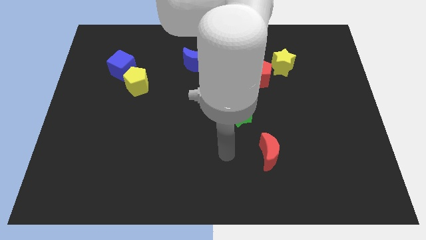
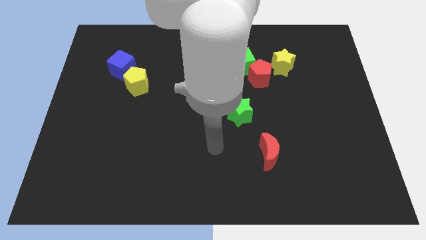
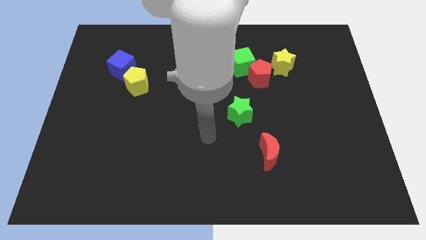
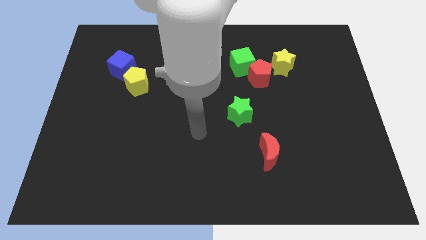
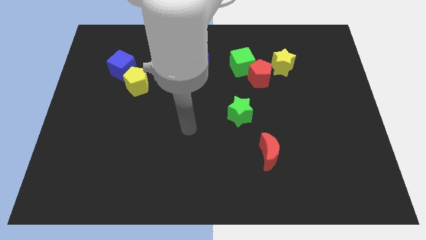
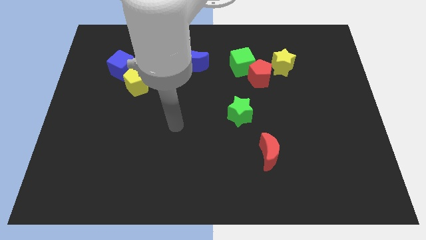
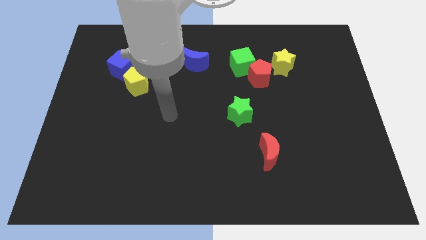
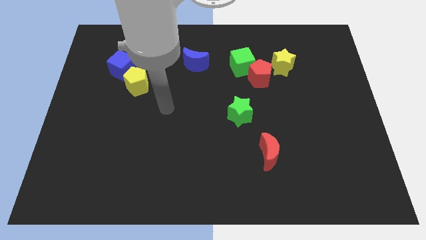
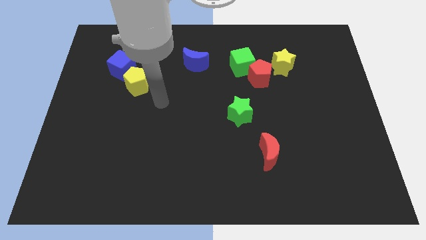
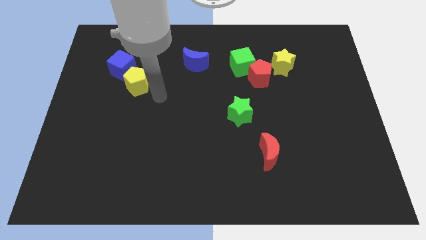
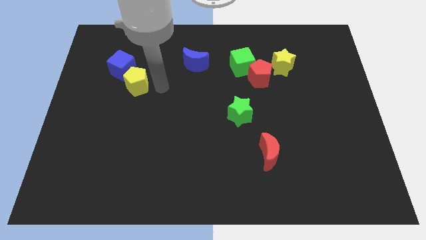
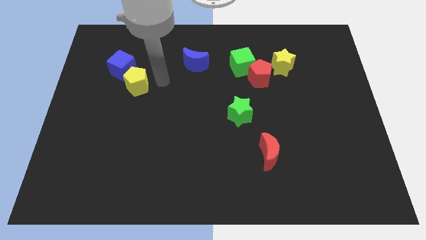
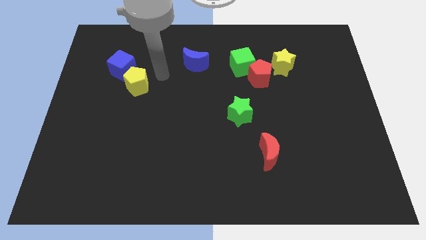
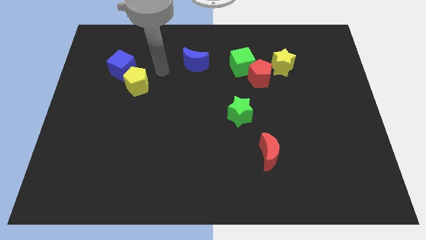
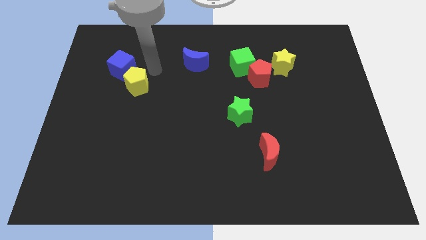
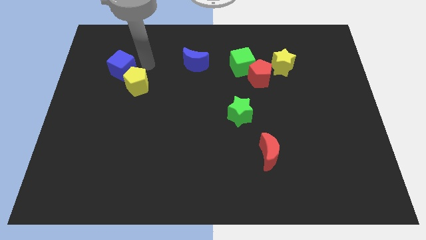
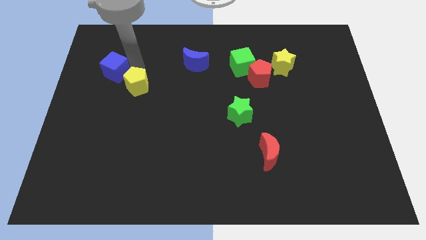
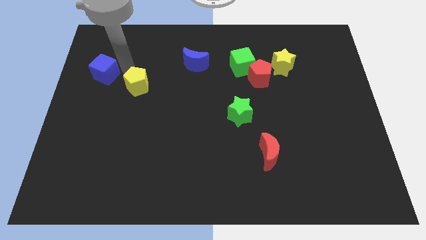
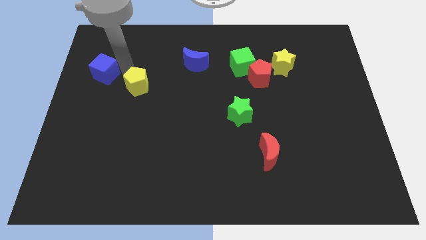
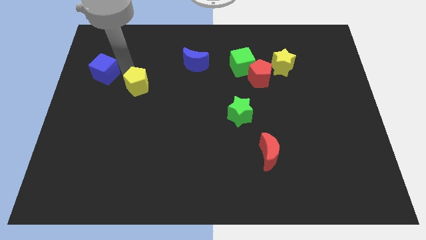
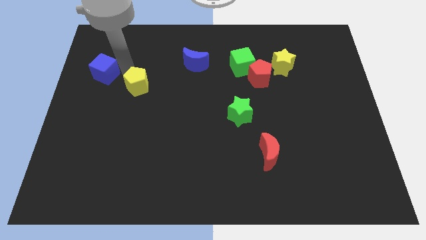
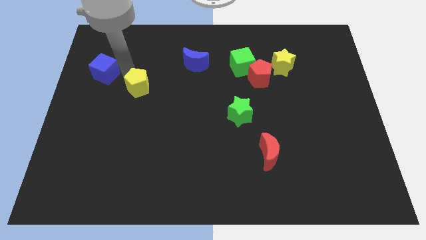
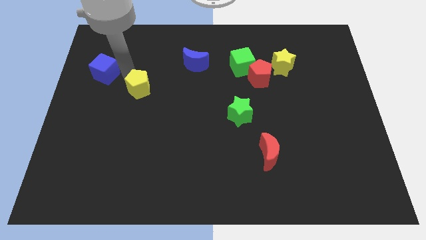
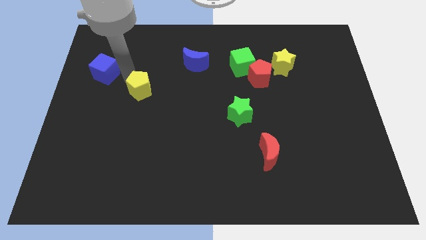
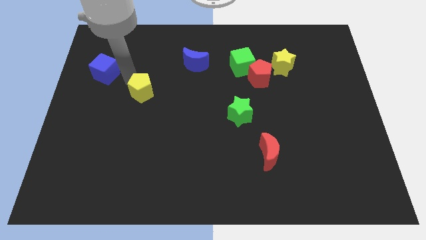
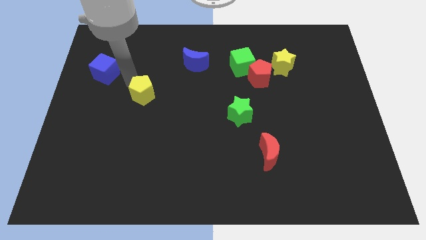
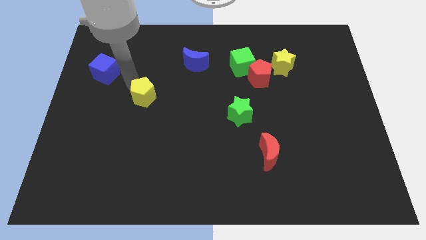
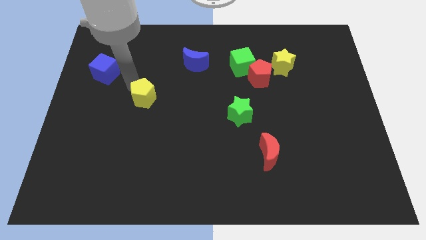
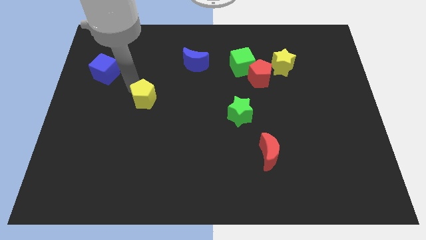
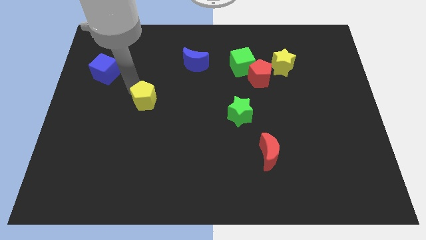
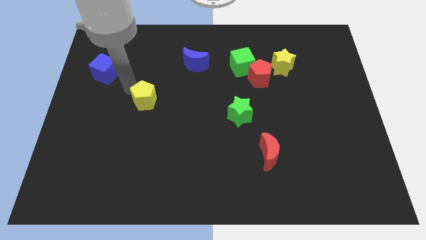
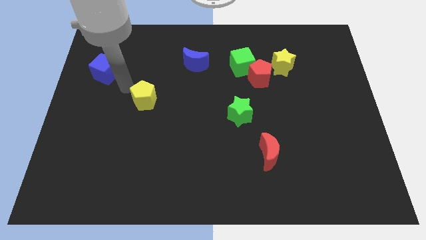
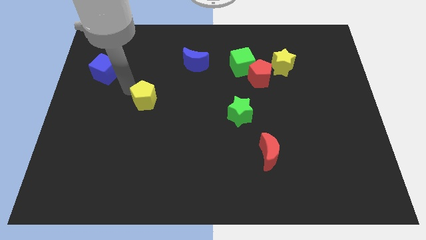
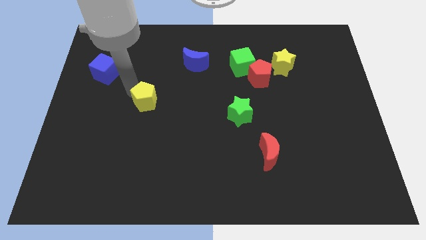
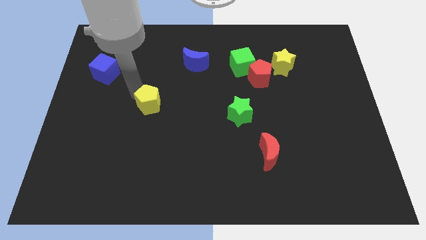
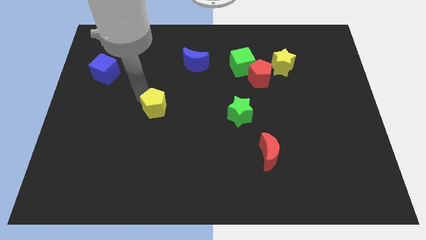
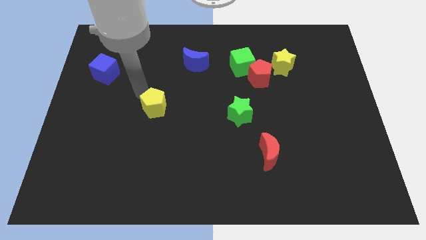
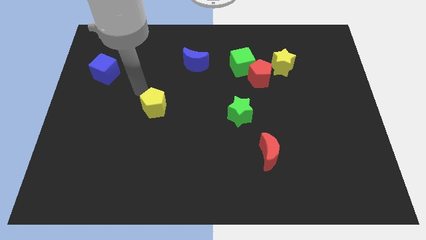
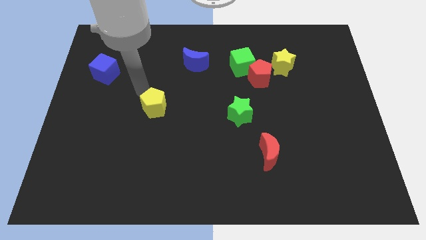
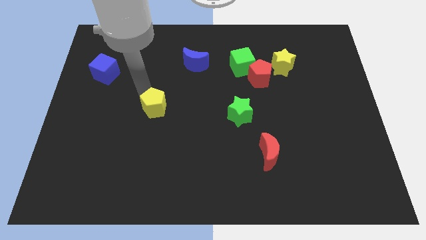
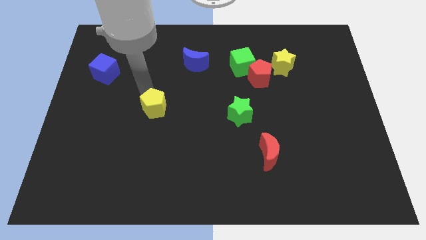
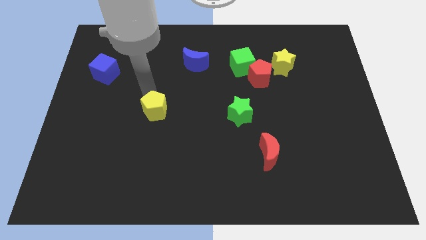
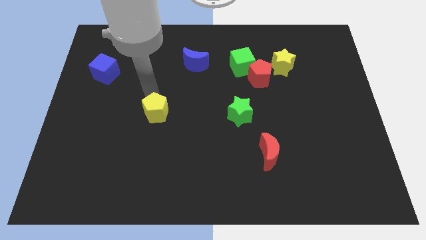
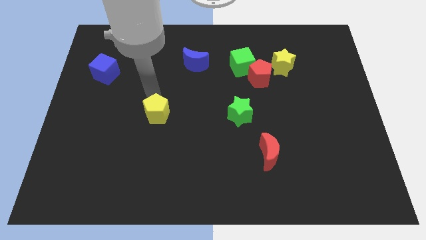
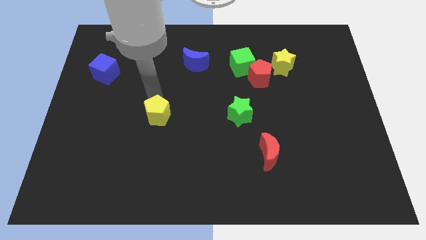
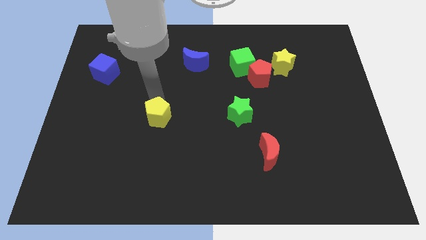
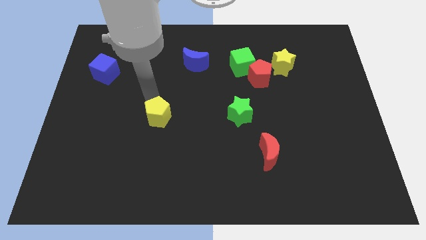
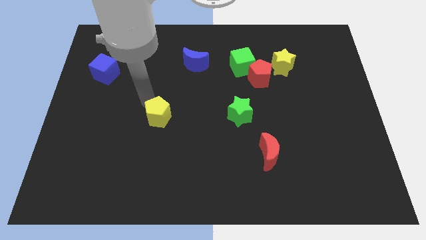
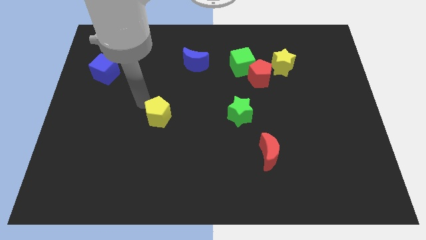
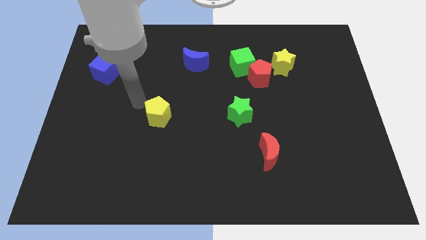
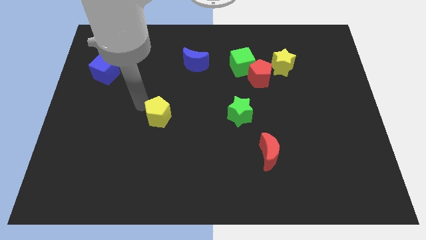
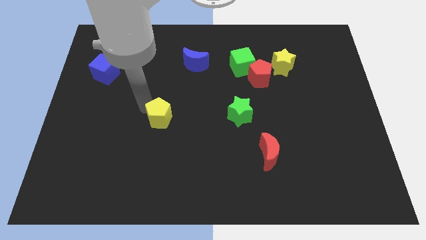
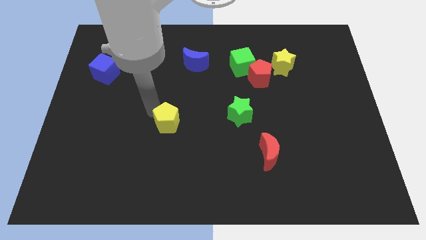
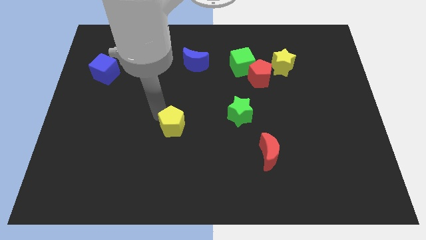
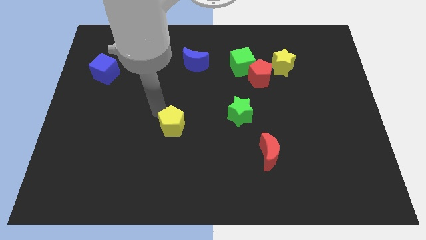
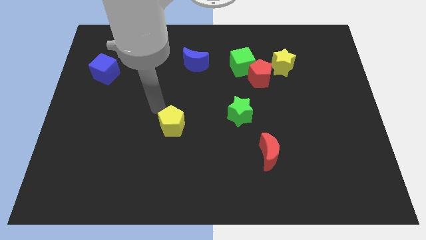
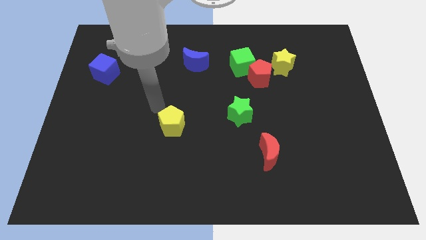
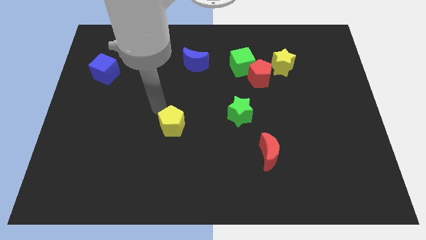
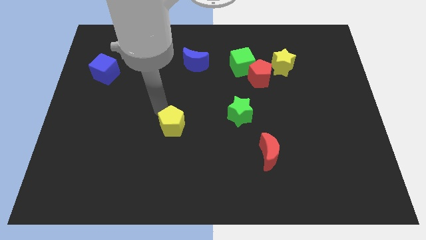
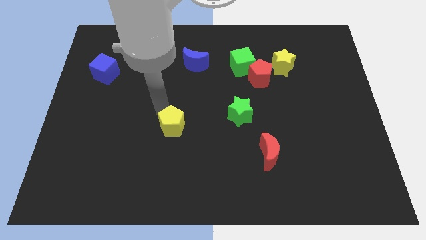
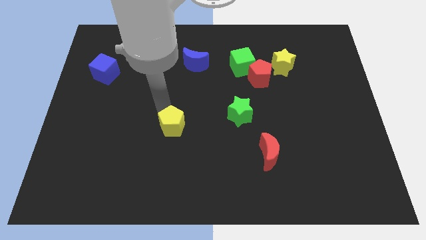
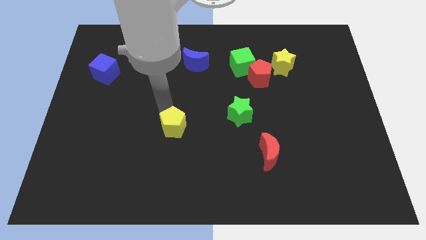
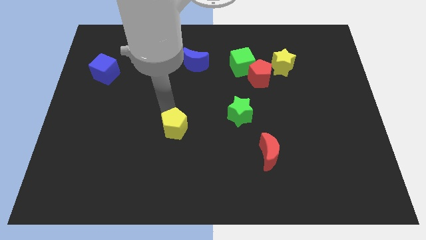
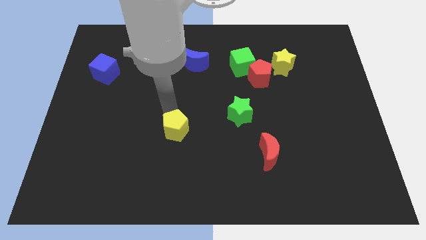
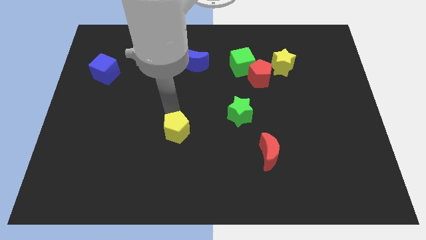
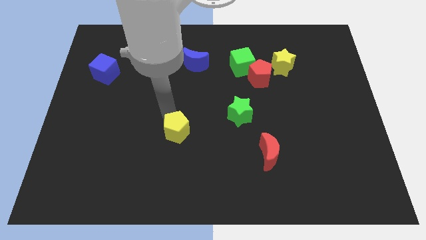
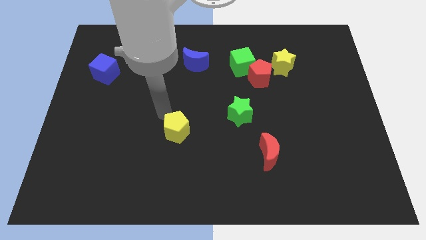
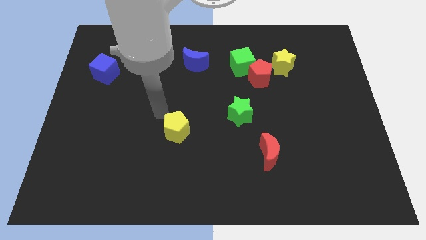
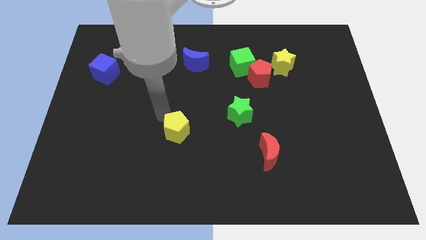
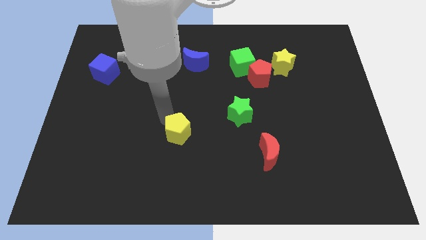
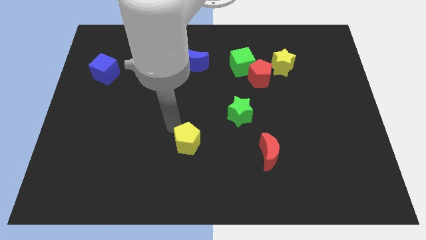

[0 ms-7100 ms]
move the yellow pentagon diagonally downwards and to the right

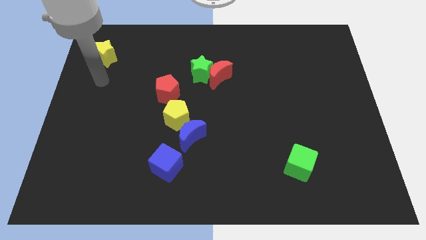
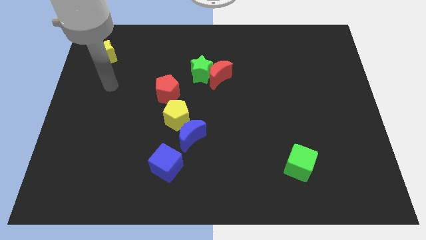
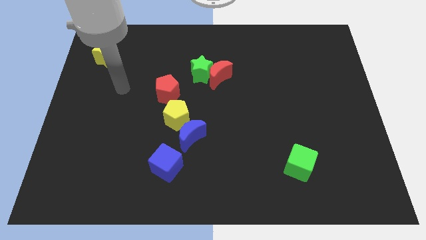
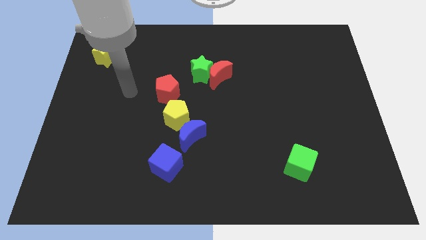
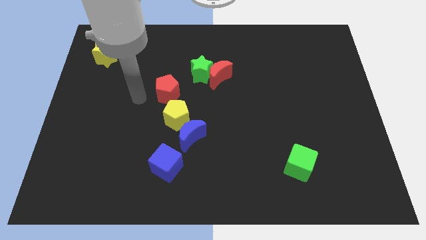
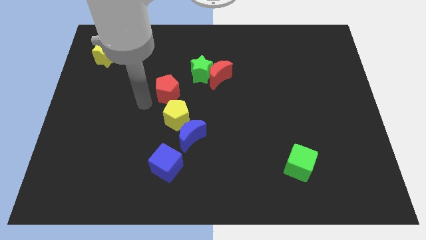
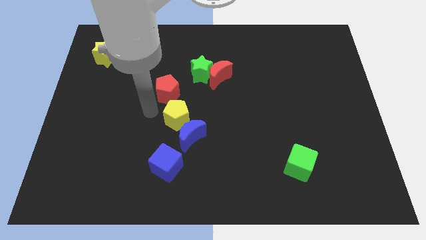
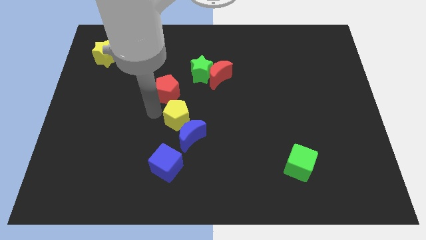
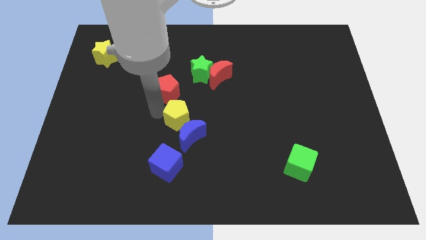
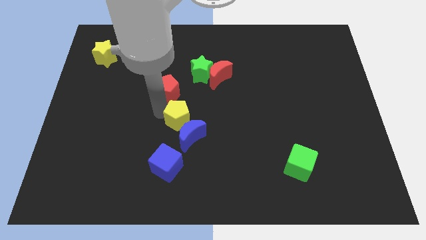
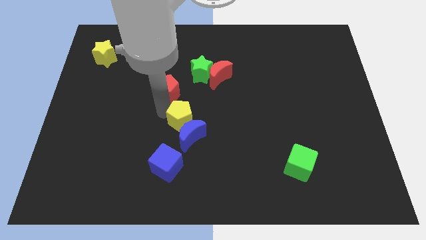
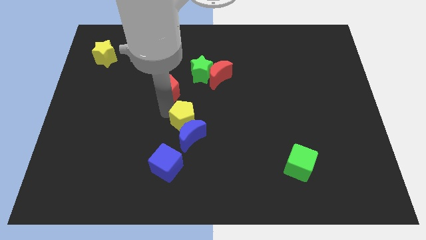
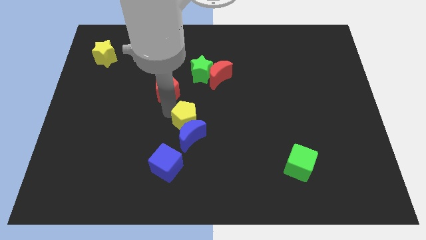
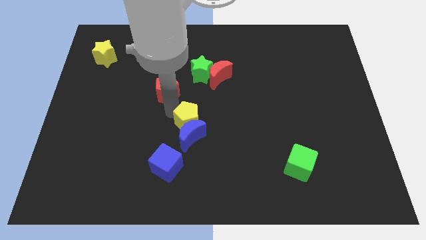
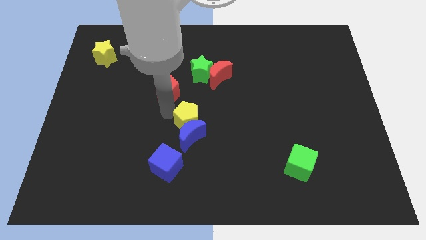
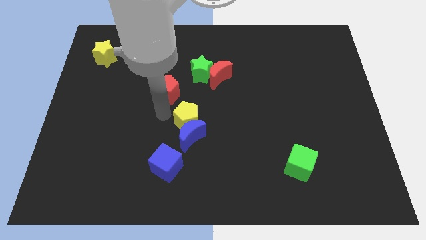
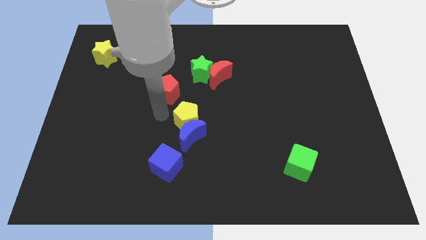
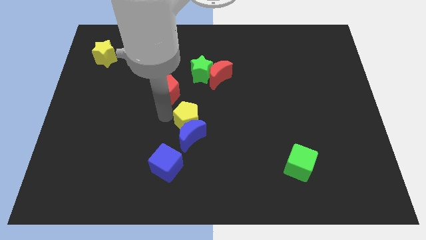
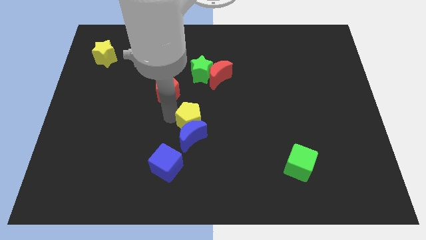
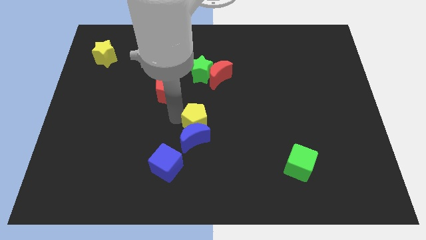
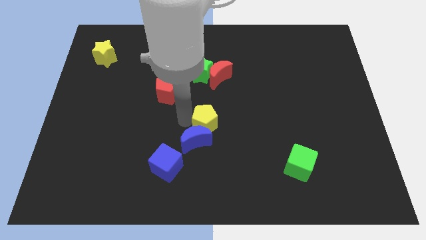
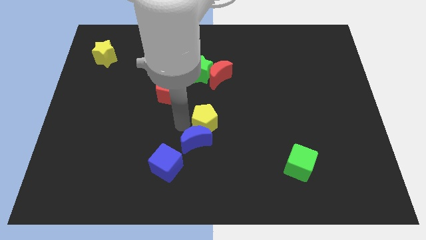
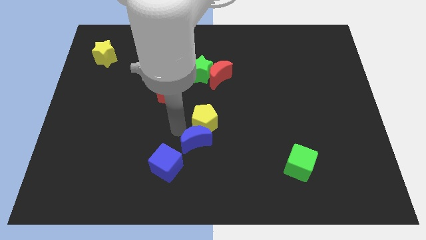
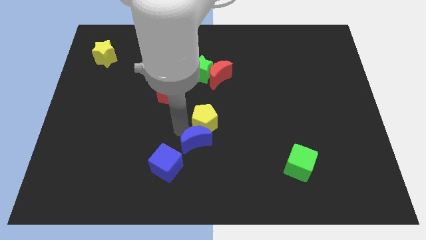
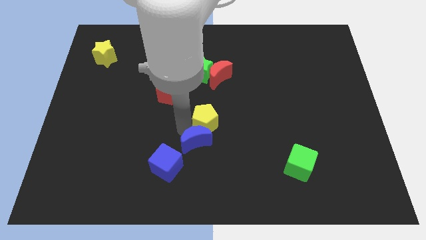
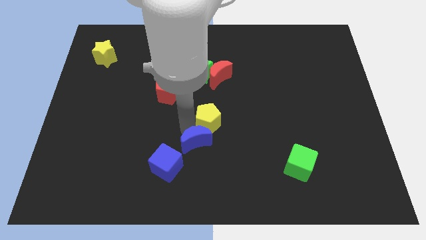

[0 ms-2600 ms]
slightly push the yellow pentagon to the right
